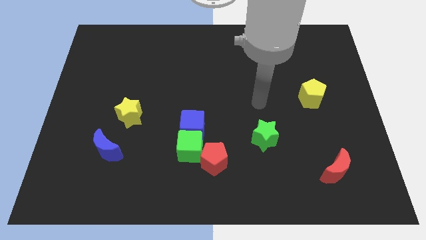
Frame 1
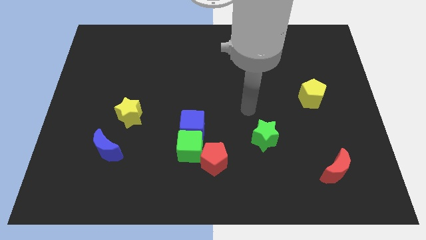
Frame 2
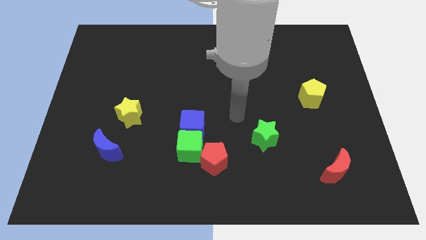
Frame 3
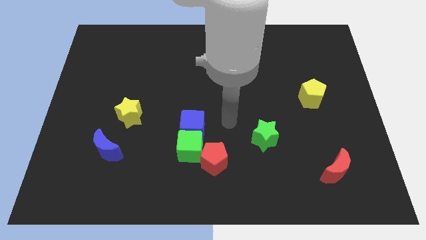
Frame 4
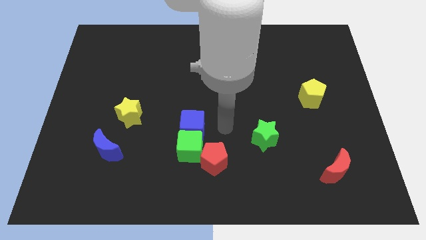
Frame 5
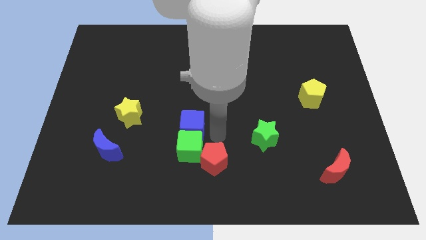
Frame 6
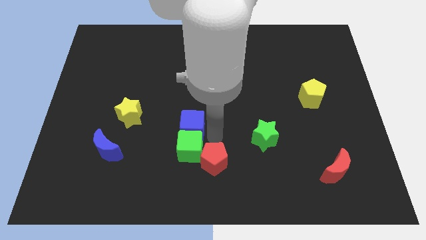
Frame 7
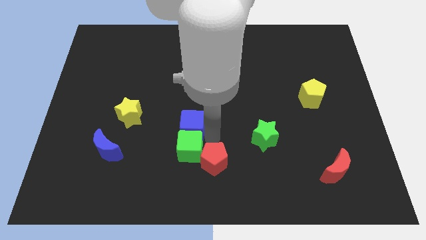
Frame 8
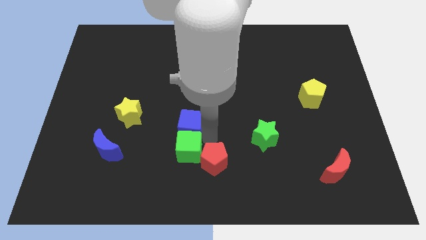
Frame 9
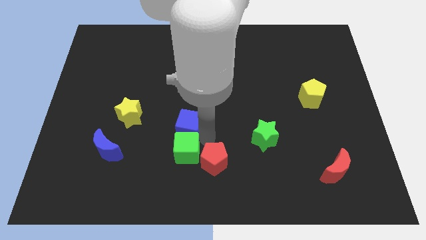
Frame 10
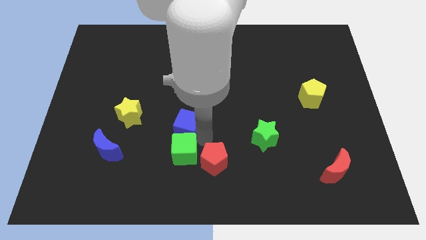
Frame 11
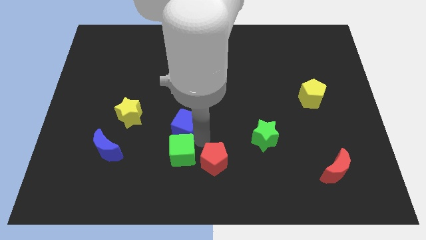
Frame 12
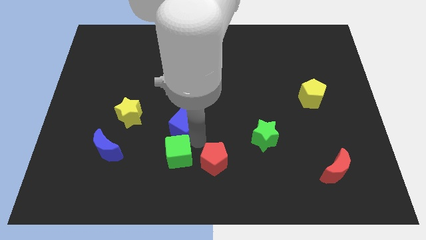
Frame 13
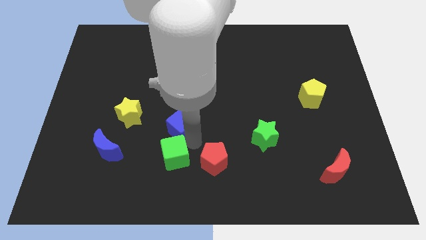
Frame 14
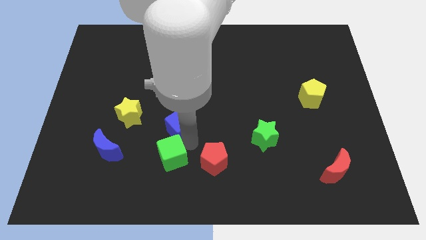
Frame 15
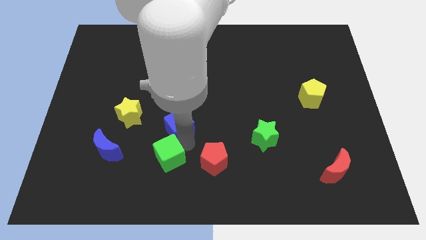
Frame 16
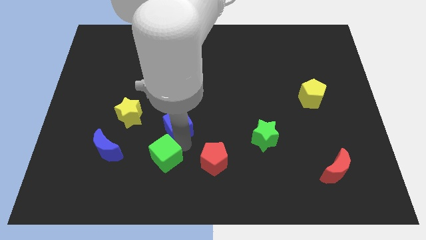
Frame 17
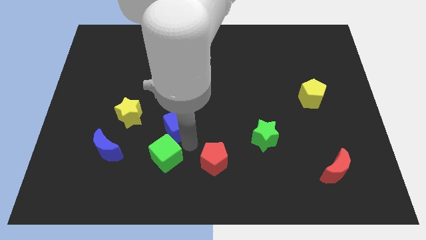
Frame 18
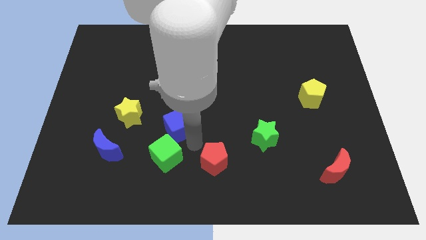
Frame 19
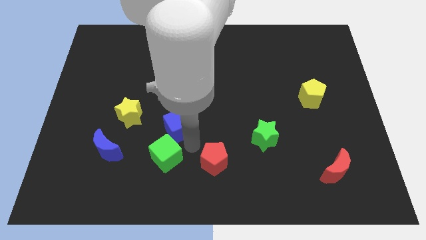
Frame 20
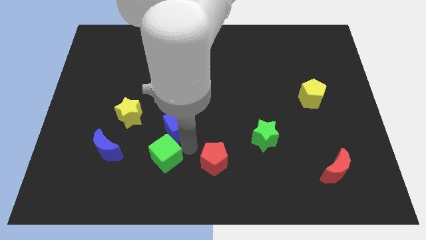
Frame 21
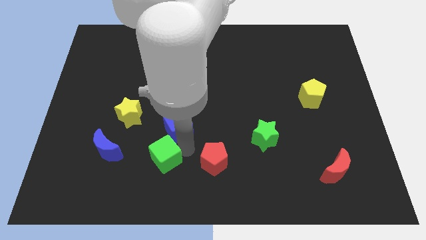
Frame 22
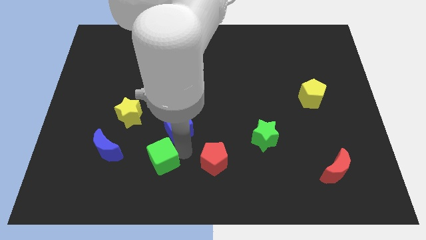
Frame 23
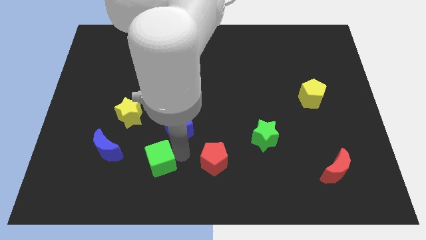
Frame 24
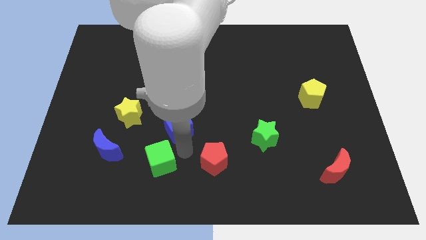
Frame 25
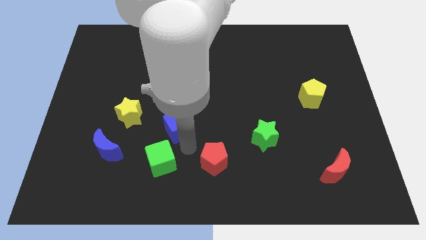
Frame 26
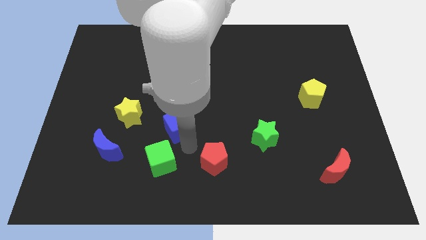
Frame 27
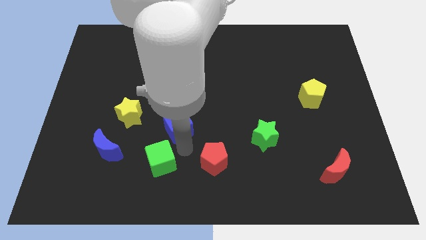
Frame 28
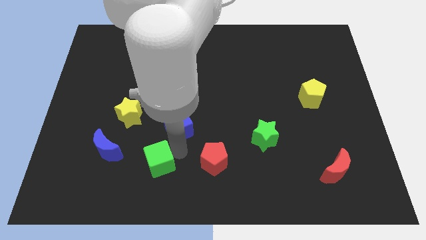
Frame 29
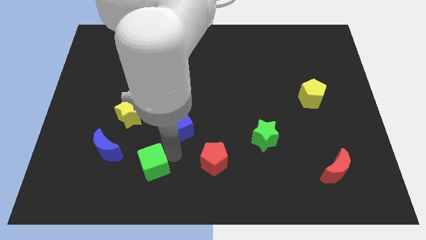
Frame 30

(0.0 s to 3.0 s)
move the green cube away from the blue cube and red pentagon

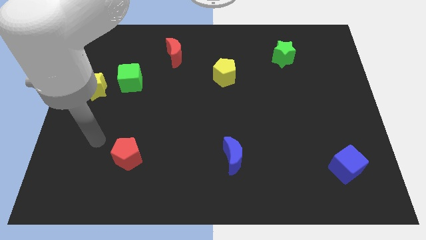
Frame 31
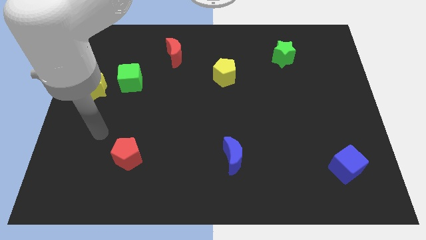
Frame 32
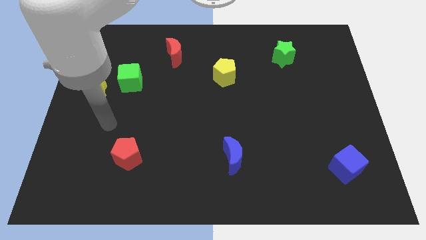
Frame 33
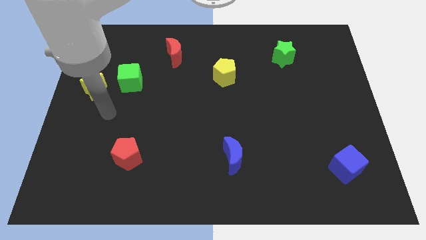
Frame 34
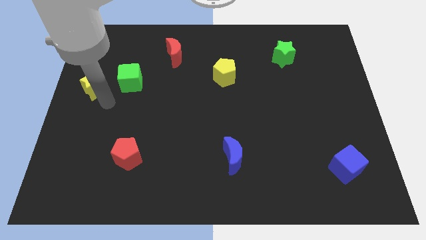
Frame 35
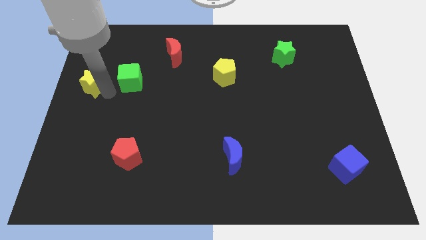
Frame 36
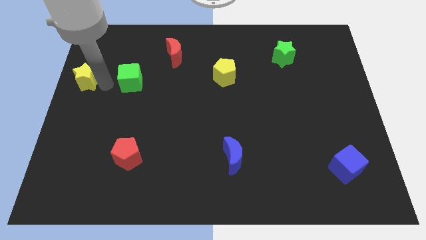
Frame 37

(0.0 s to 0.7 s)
separate the green cube from the yellow star

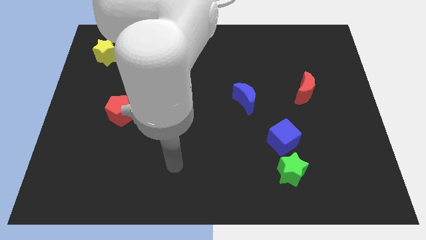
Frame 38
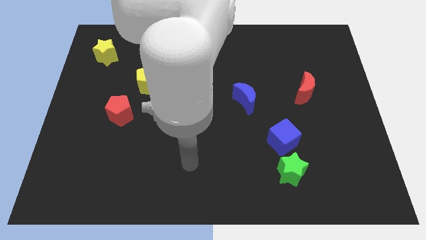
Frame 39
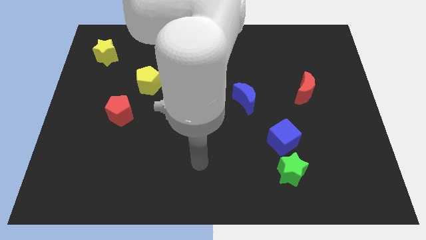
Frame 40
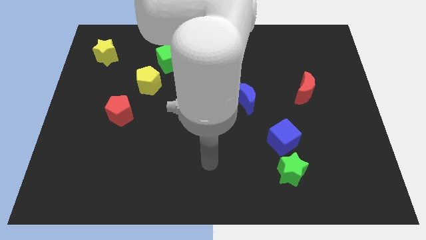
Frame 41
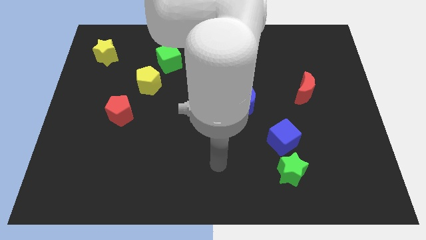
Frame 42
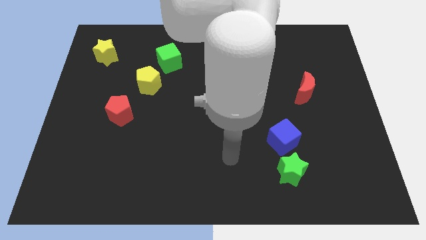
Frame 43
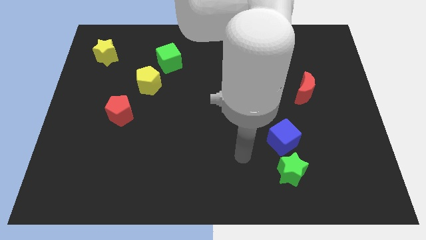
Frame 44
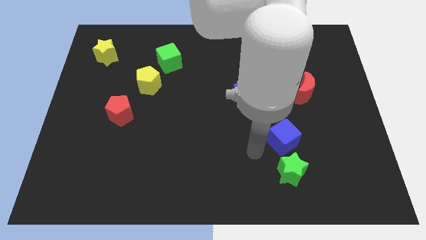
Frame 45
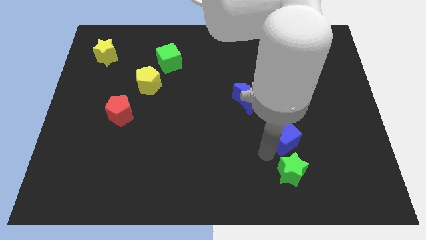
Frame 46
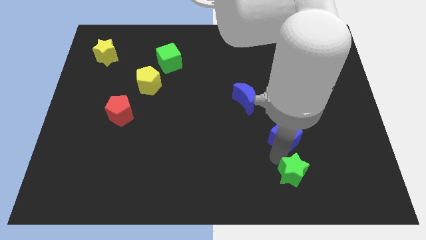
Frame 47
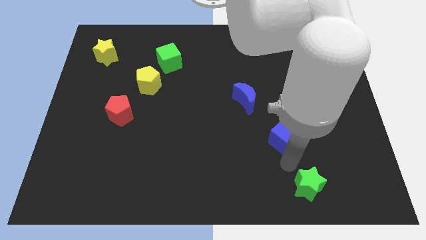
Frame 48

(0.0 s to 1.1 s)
separate the blue cube from the green star

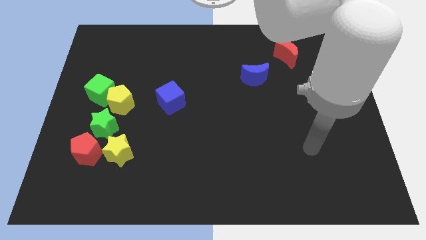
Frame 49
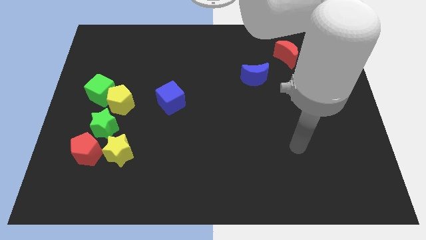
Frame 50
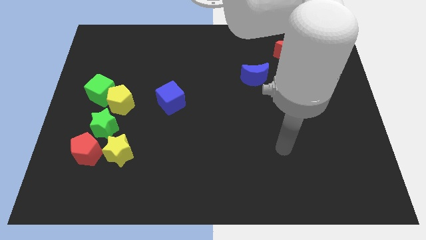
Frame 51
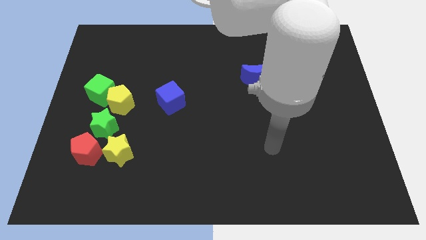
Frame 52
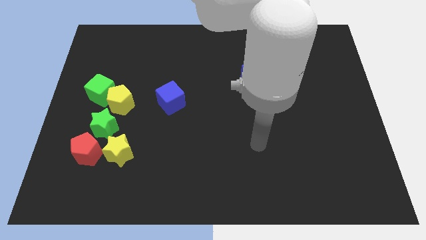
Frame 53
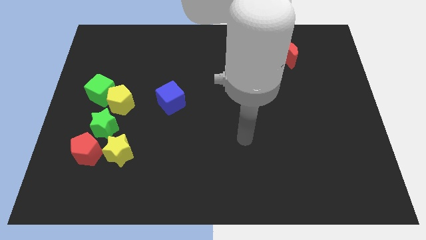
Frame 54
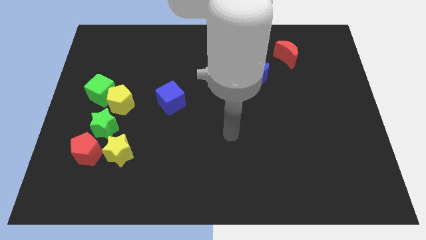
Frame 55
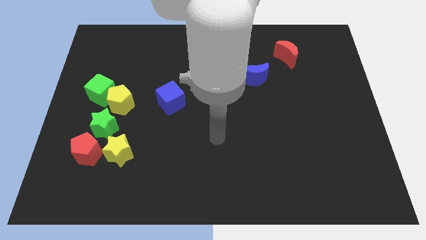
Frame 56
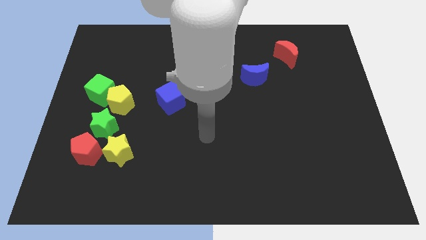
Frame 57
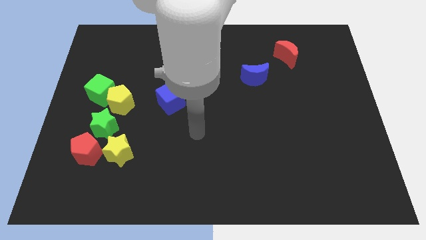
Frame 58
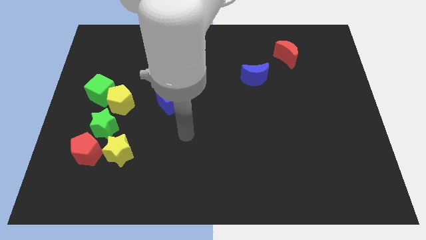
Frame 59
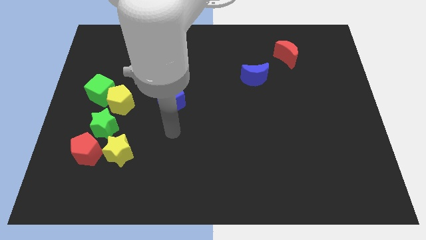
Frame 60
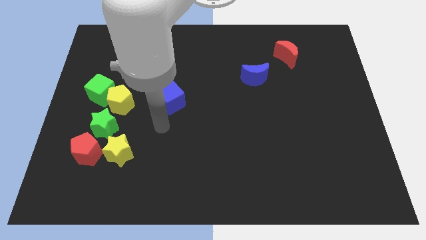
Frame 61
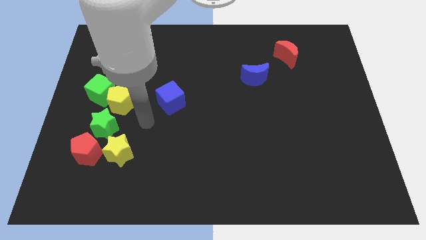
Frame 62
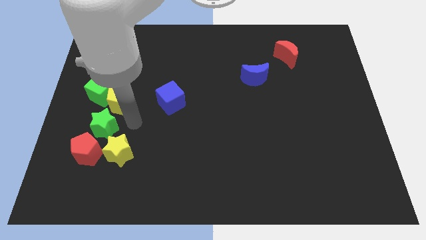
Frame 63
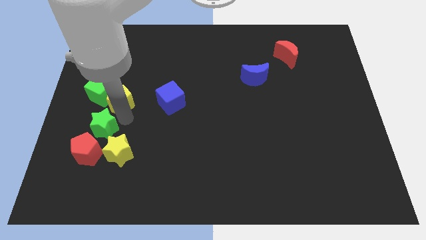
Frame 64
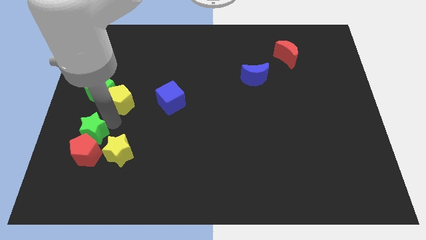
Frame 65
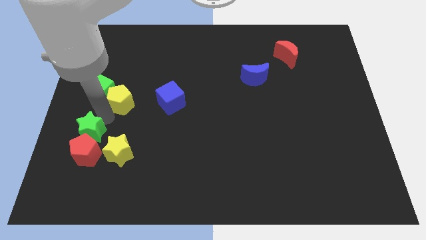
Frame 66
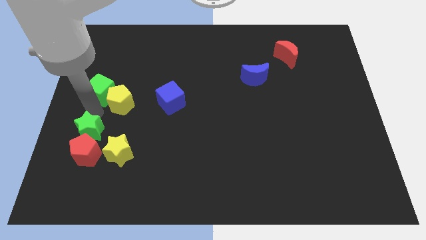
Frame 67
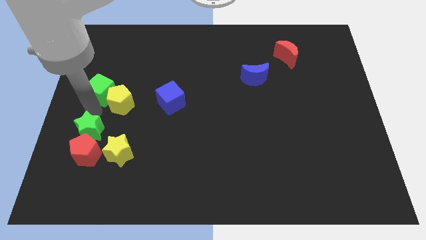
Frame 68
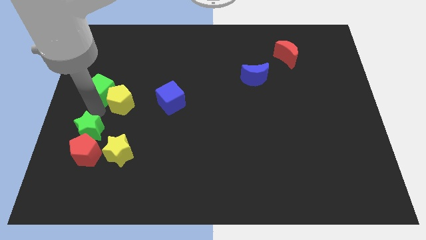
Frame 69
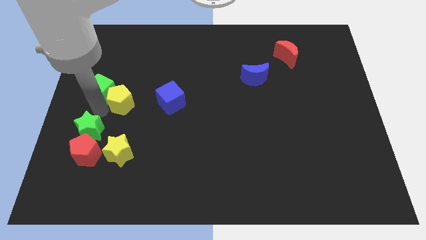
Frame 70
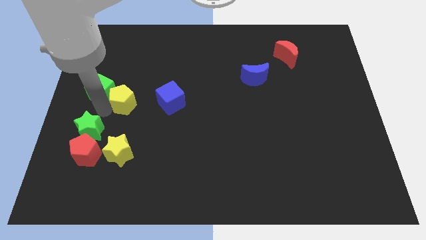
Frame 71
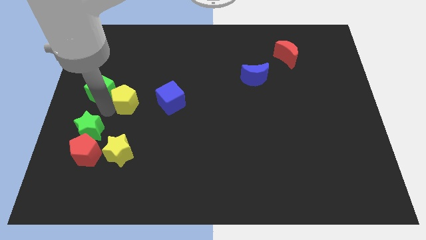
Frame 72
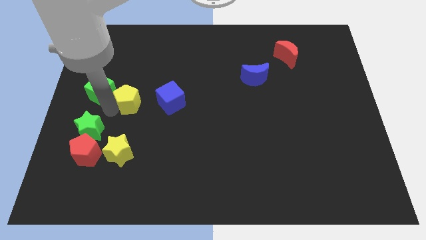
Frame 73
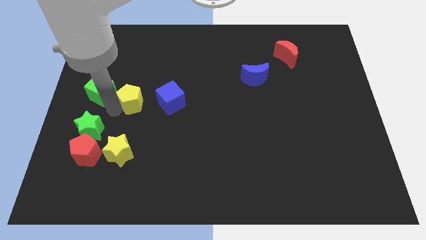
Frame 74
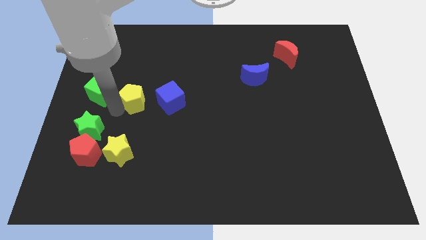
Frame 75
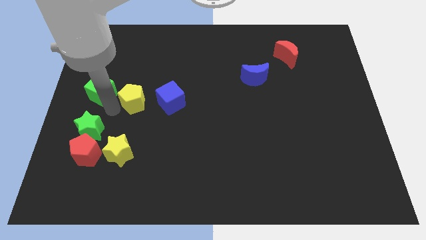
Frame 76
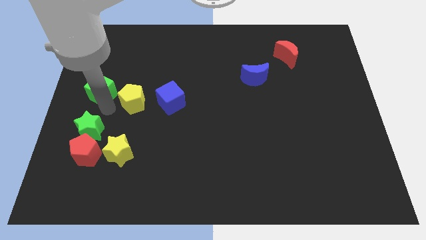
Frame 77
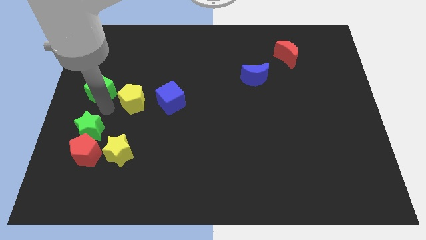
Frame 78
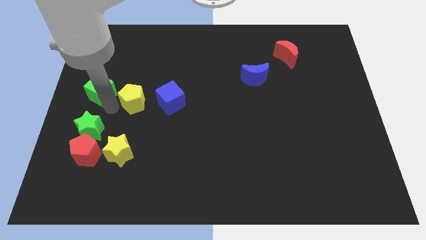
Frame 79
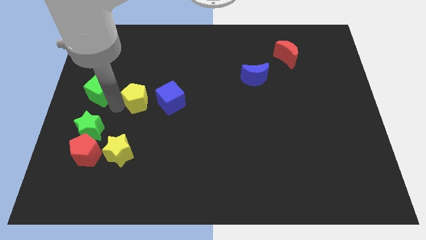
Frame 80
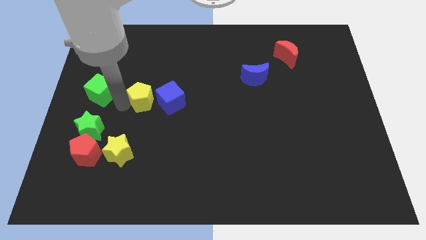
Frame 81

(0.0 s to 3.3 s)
separate the yellow pentagon from the green cube and green star

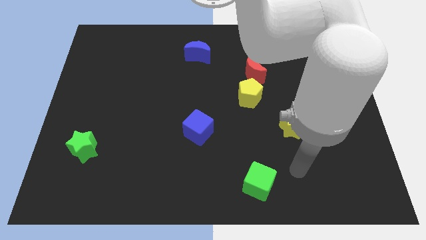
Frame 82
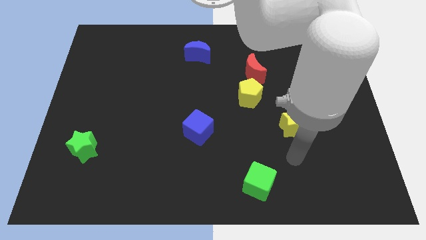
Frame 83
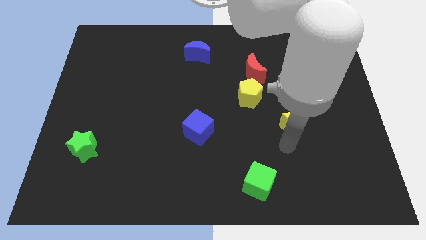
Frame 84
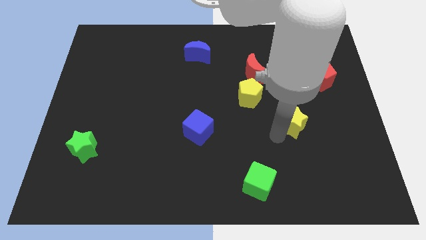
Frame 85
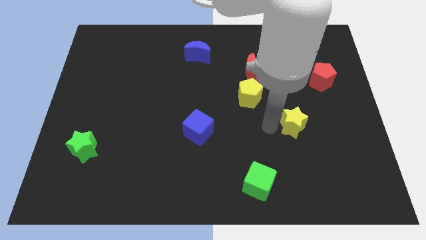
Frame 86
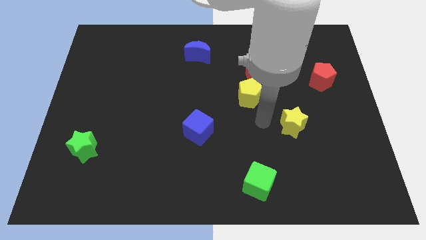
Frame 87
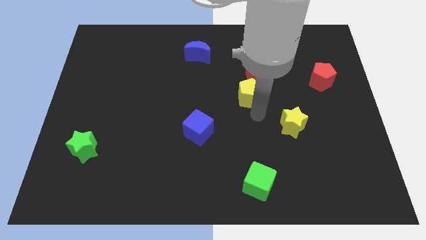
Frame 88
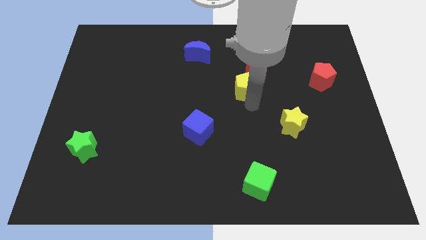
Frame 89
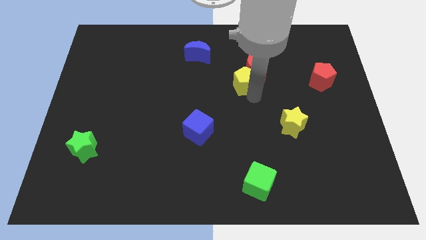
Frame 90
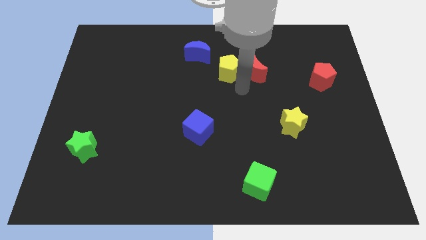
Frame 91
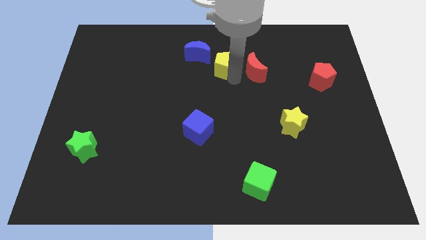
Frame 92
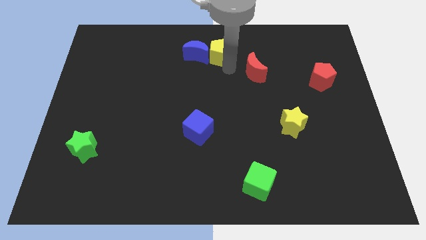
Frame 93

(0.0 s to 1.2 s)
separate the red moon from the yellow pentagon
